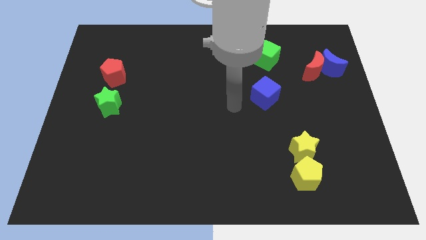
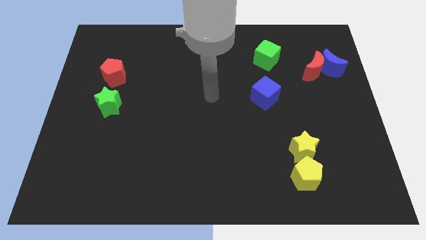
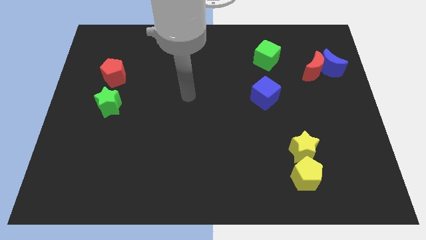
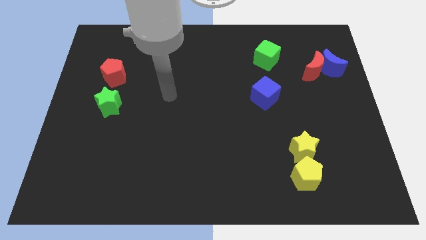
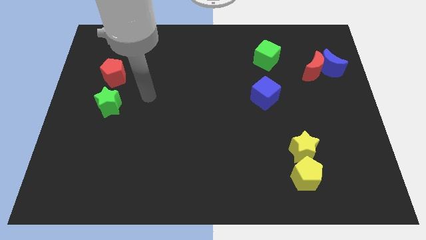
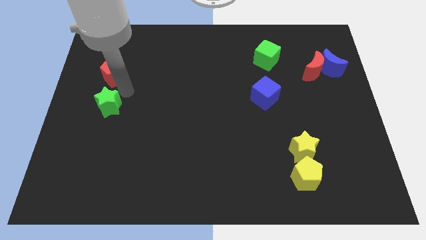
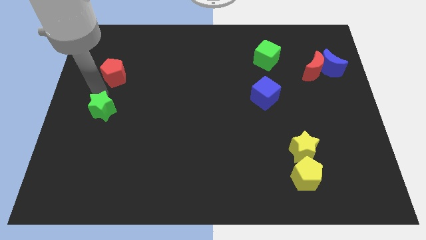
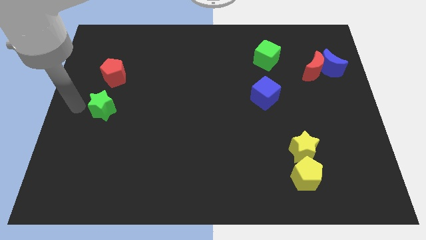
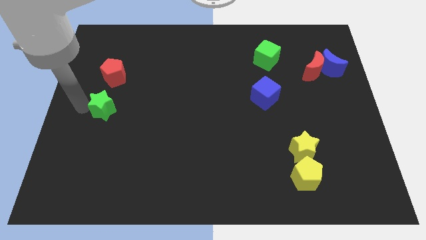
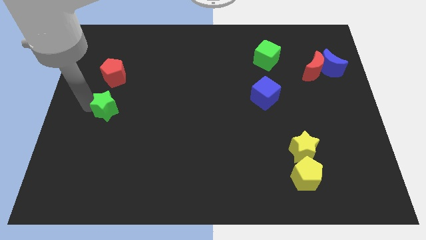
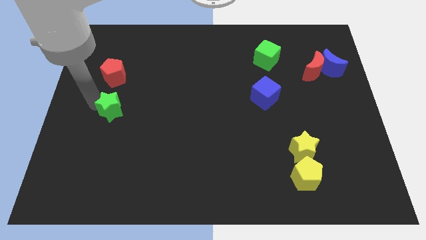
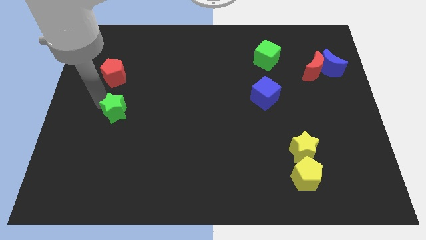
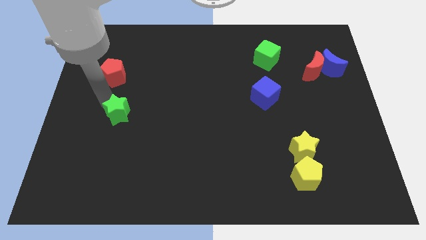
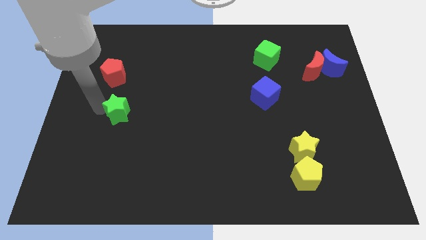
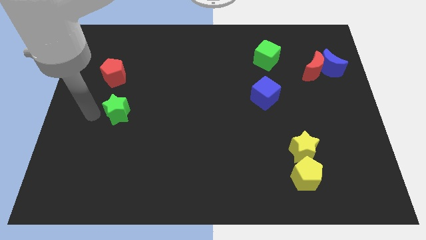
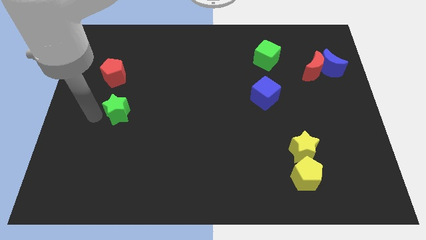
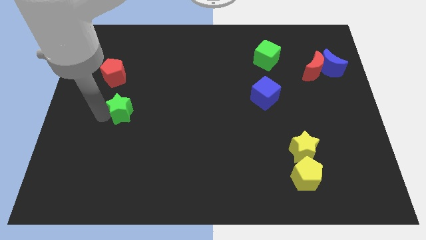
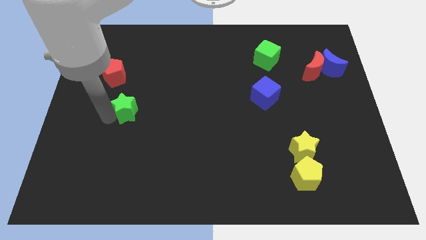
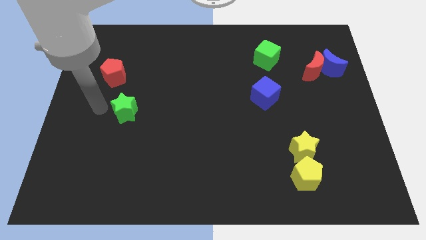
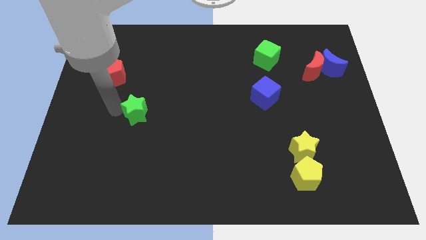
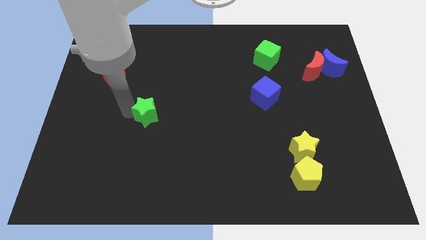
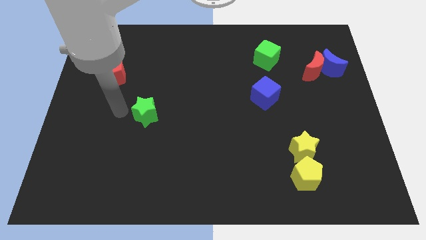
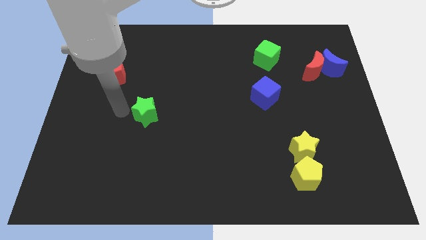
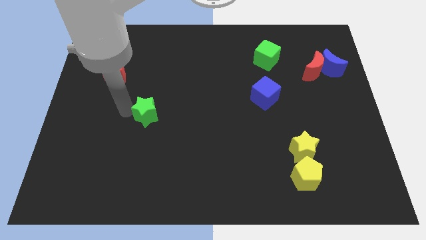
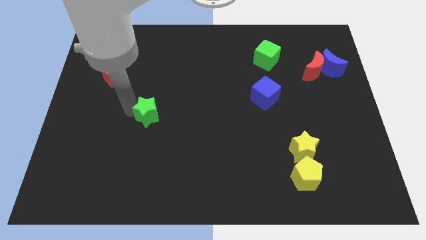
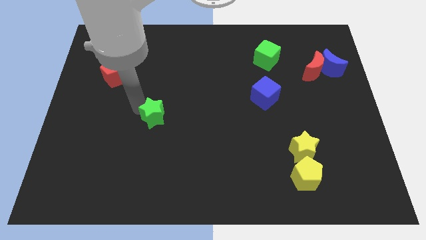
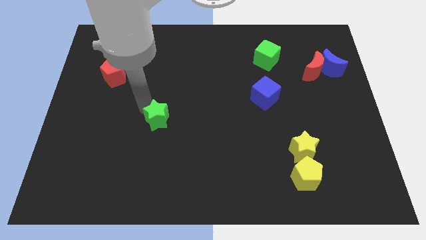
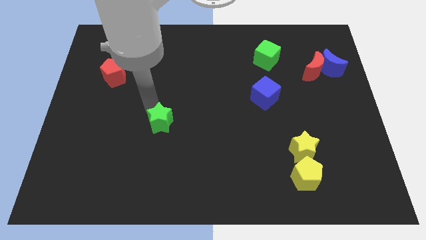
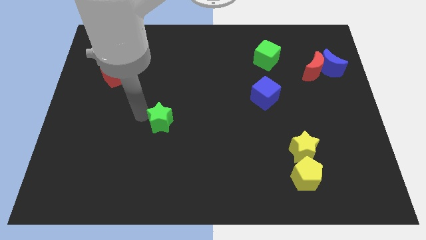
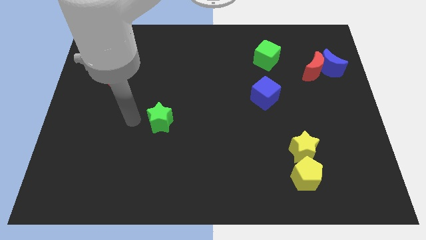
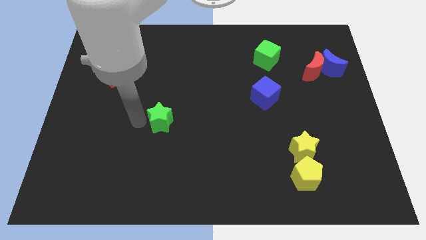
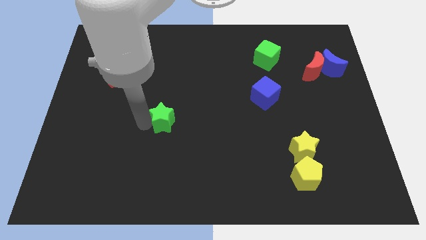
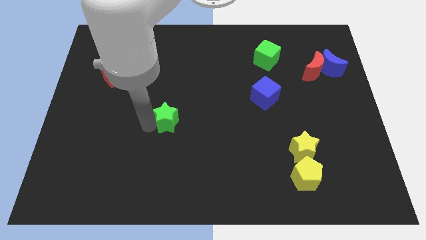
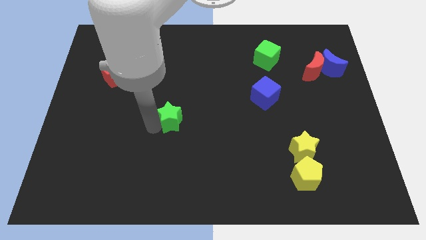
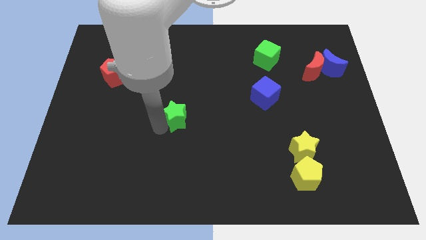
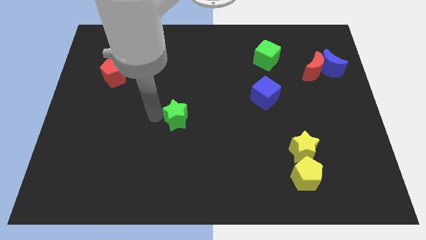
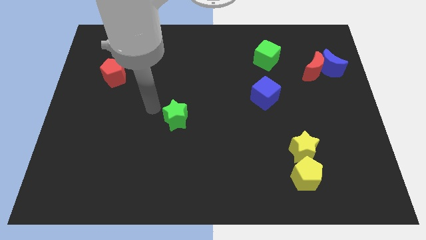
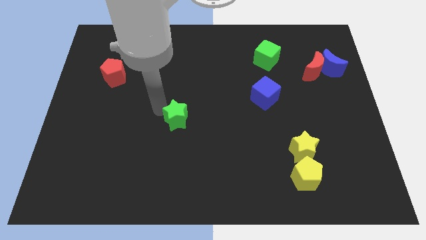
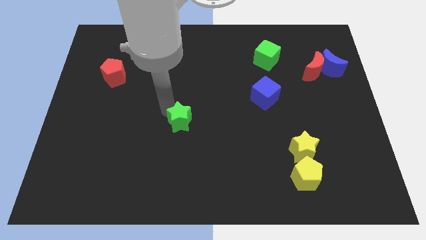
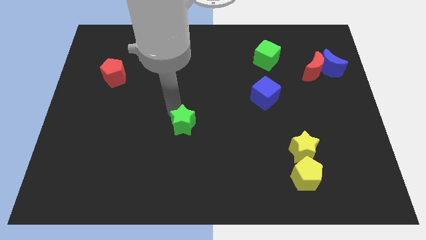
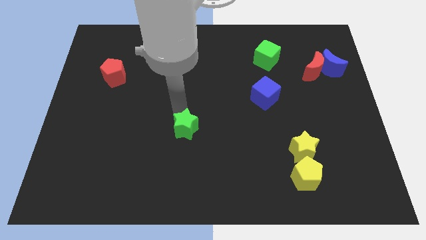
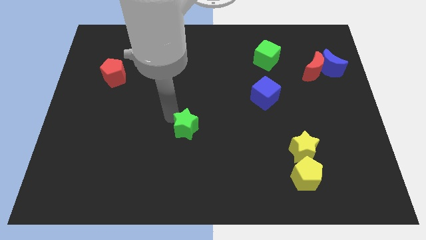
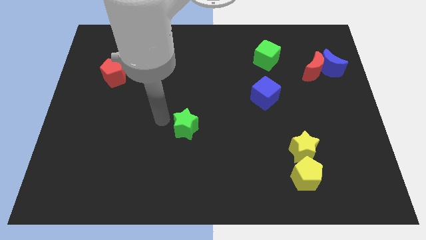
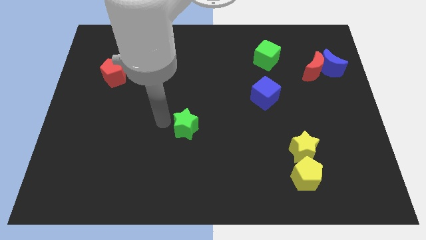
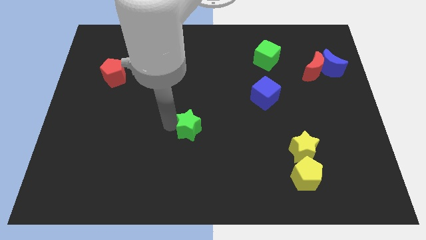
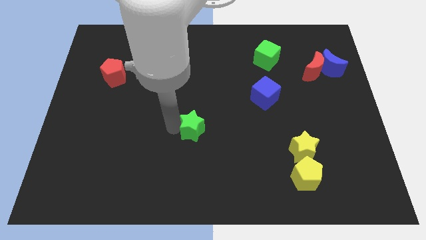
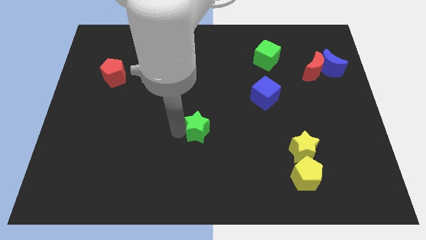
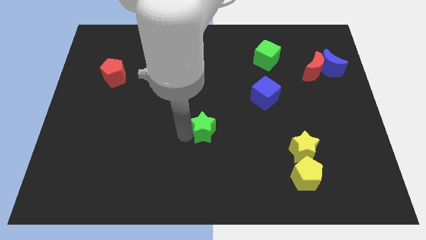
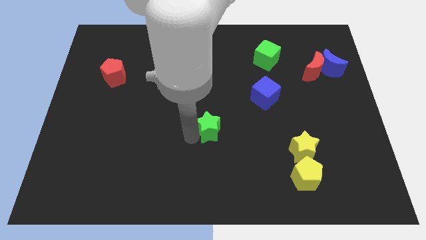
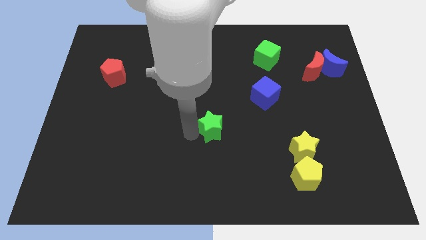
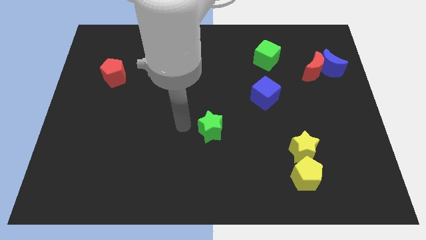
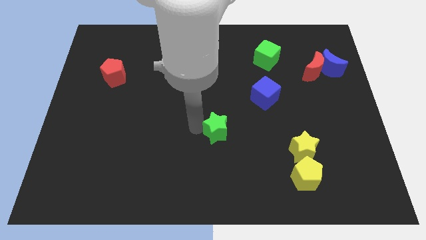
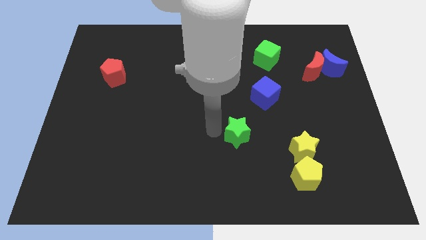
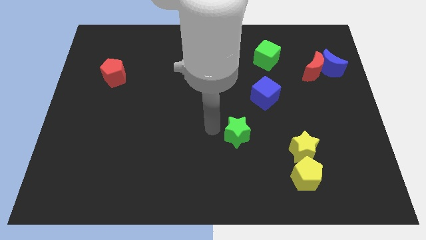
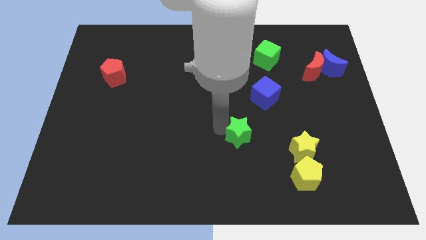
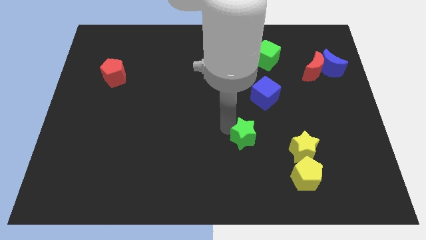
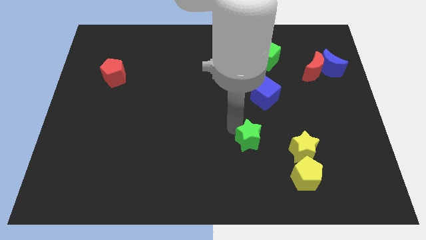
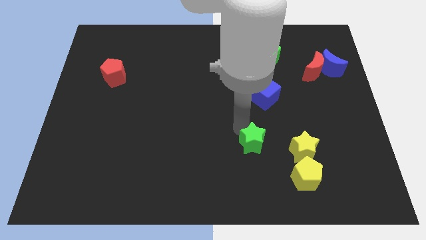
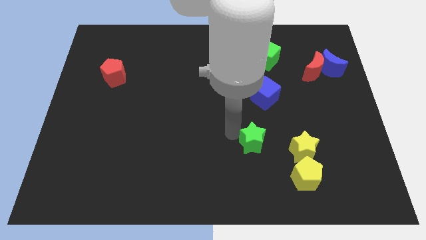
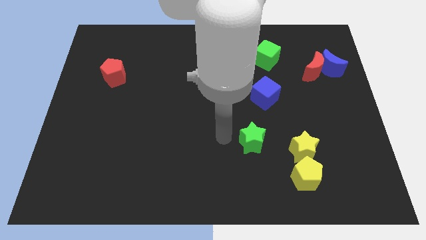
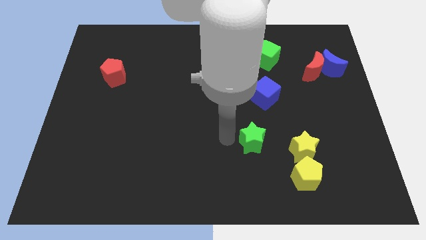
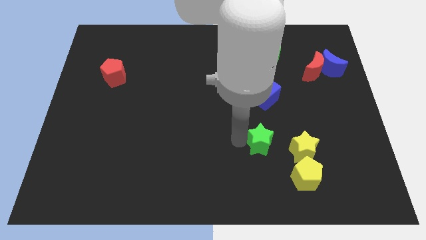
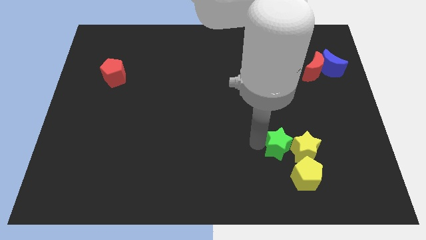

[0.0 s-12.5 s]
put the green star to the yellow star
